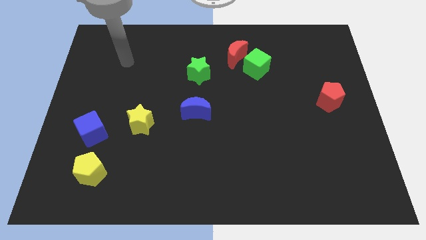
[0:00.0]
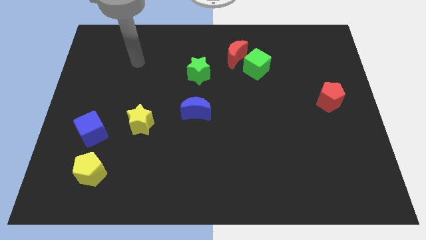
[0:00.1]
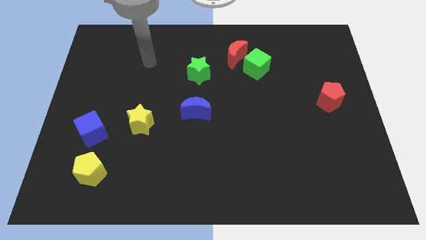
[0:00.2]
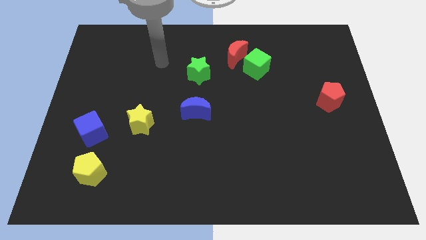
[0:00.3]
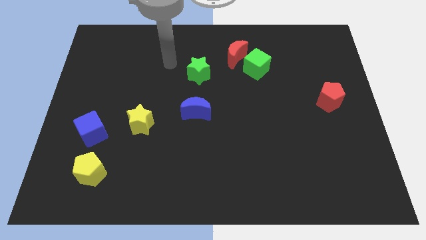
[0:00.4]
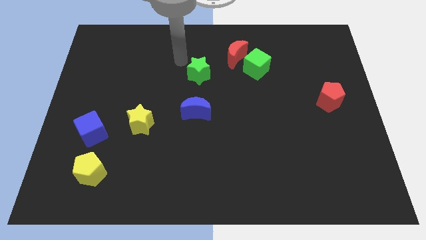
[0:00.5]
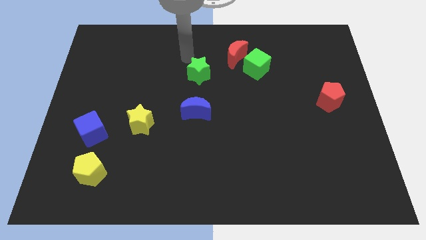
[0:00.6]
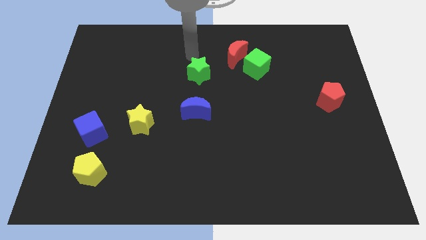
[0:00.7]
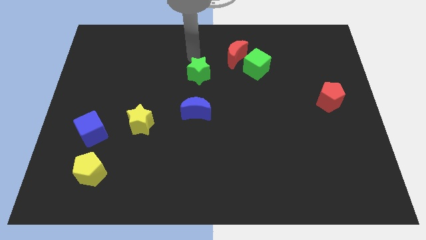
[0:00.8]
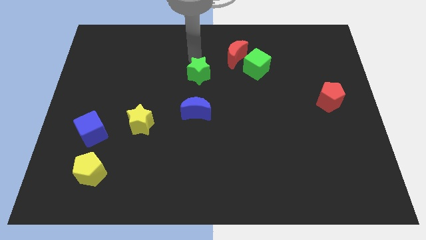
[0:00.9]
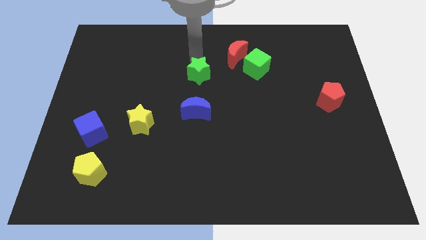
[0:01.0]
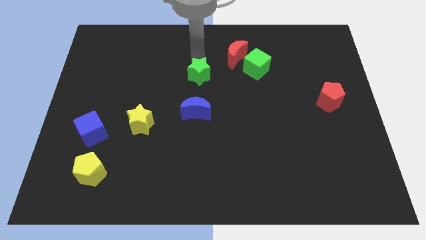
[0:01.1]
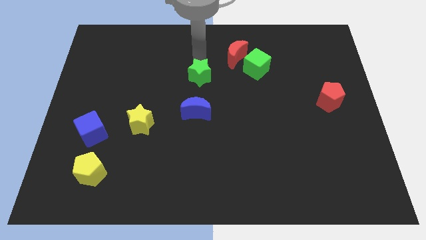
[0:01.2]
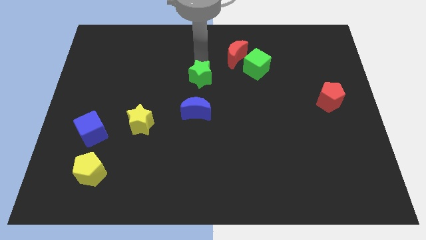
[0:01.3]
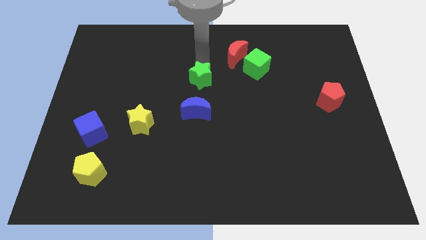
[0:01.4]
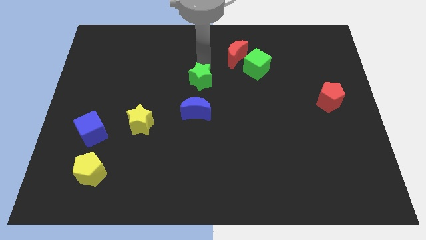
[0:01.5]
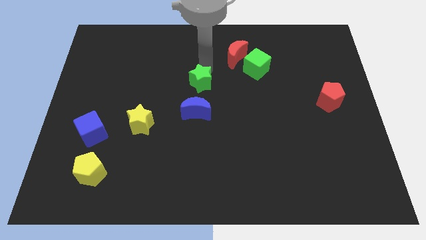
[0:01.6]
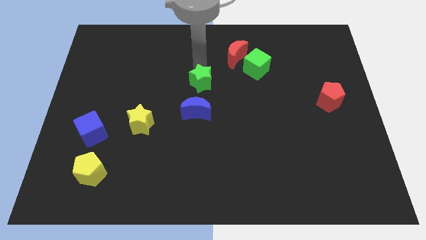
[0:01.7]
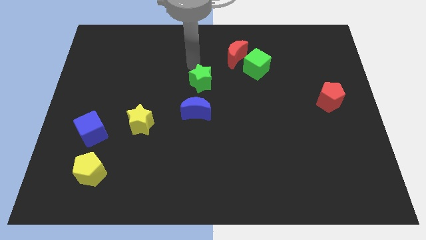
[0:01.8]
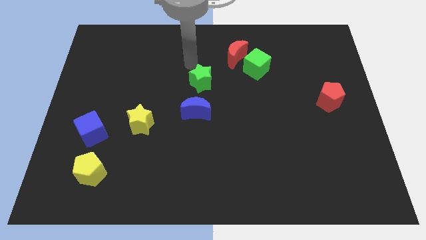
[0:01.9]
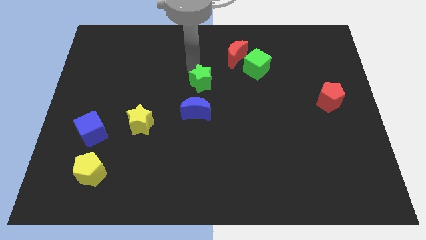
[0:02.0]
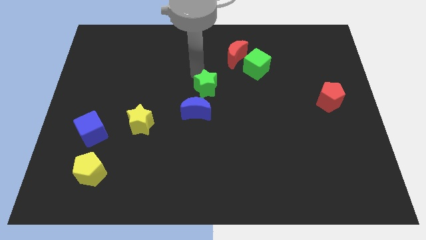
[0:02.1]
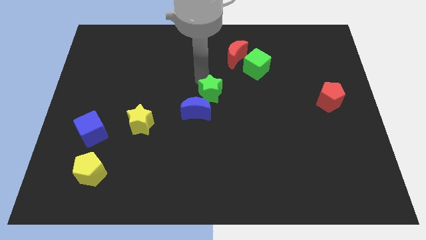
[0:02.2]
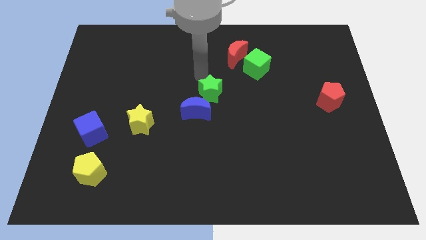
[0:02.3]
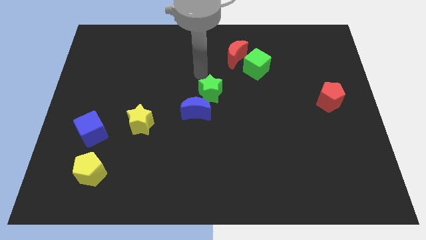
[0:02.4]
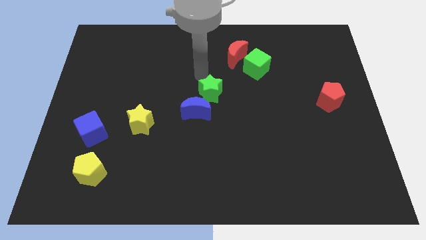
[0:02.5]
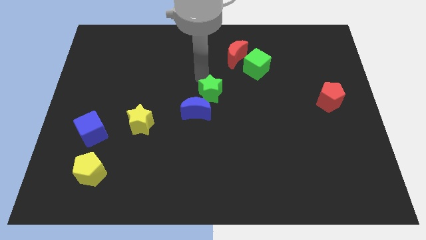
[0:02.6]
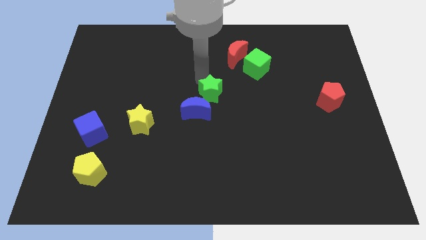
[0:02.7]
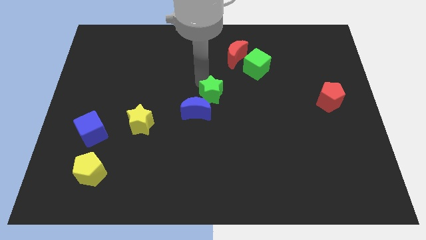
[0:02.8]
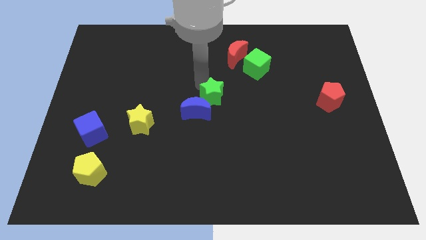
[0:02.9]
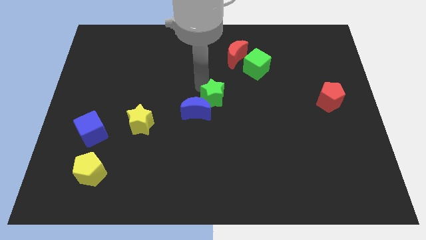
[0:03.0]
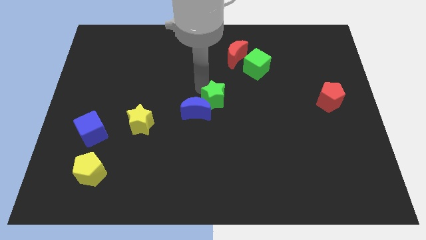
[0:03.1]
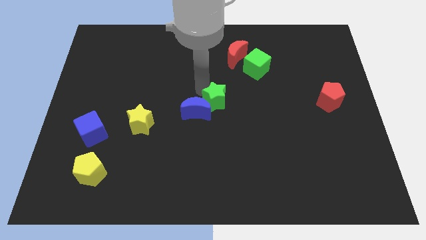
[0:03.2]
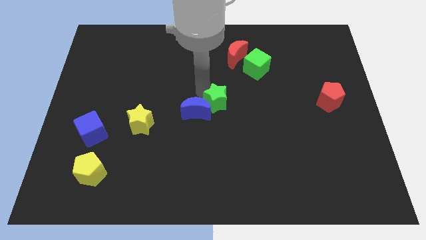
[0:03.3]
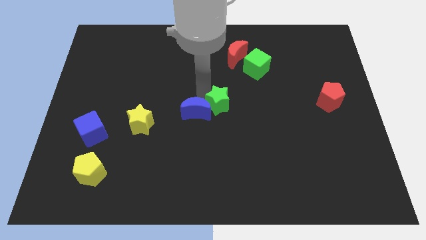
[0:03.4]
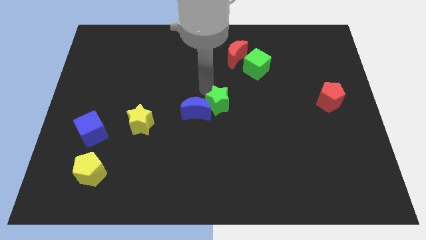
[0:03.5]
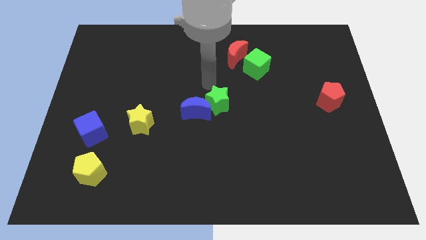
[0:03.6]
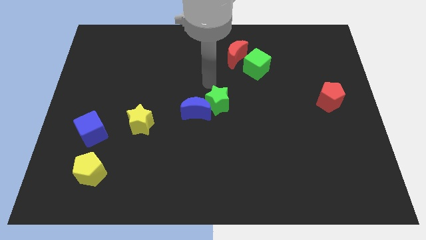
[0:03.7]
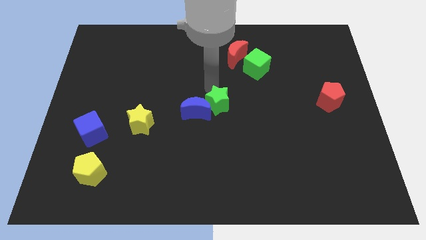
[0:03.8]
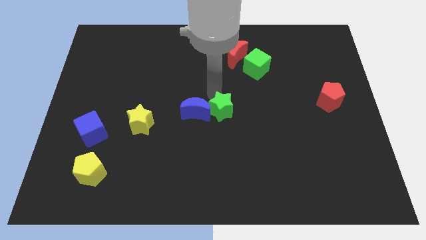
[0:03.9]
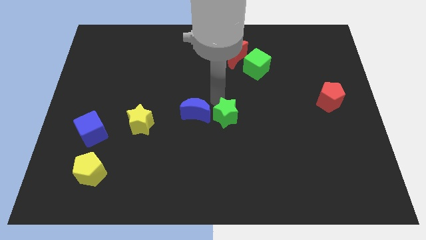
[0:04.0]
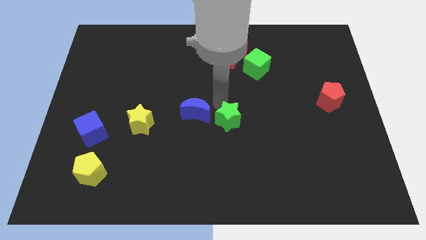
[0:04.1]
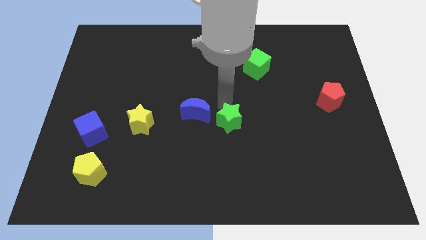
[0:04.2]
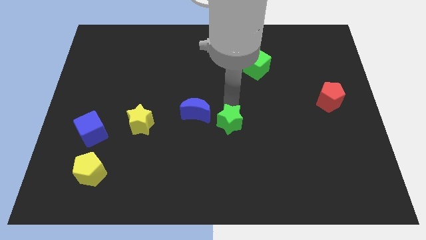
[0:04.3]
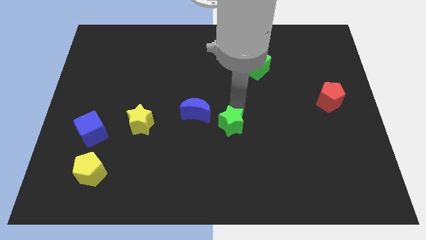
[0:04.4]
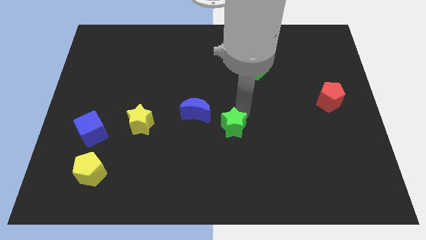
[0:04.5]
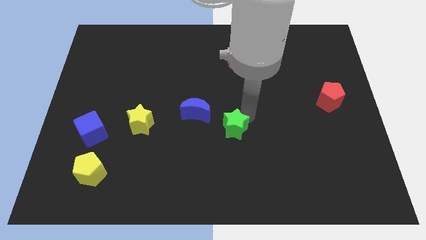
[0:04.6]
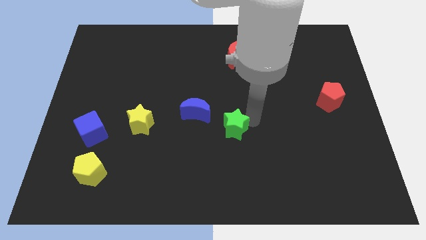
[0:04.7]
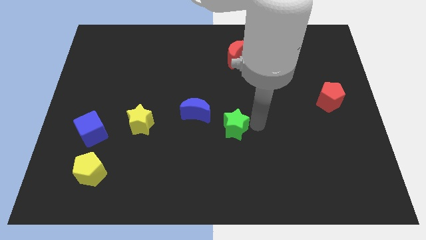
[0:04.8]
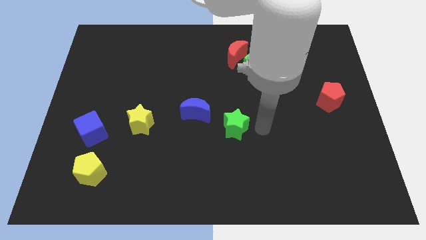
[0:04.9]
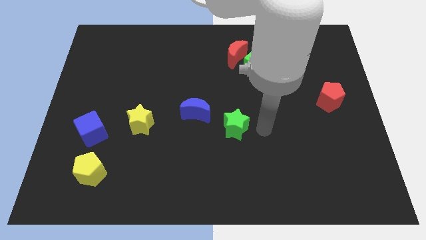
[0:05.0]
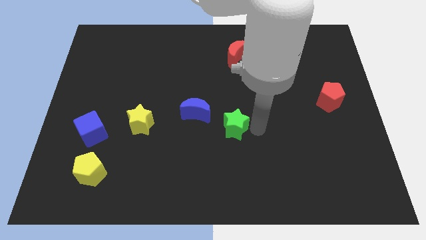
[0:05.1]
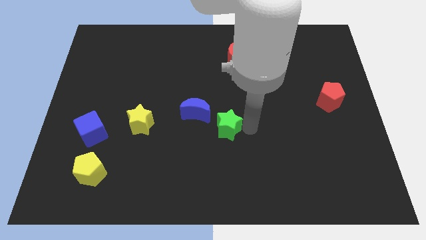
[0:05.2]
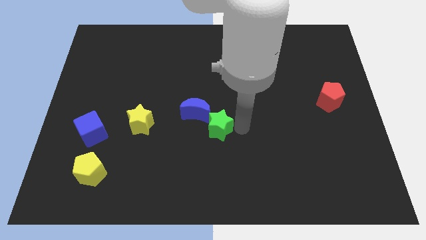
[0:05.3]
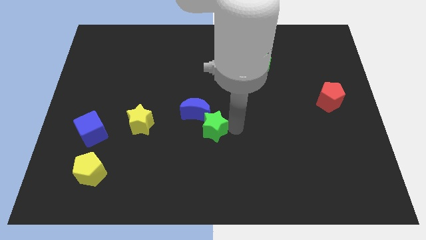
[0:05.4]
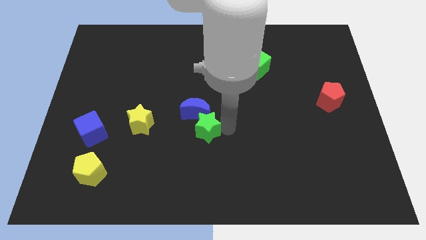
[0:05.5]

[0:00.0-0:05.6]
move the green star right of the yellow star

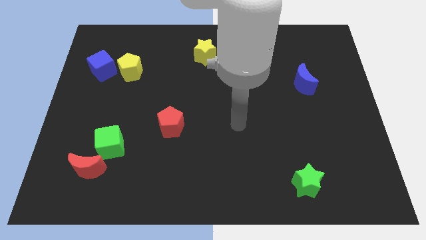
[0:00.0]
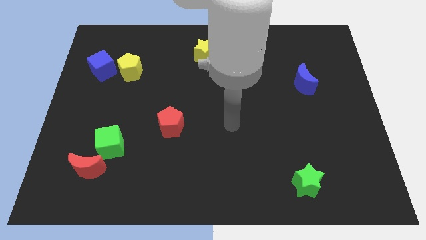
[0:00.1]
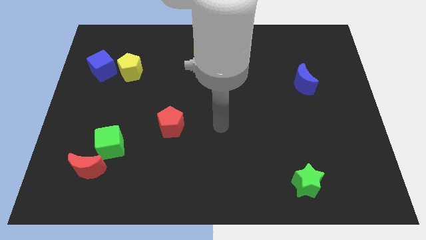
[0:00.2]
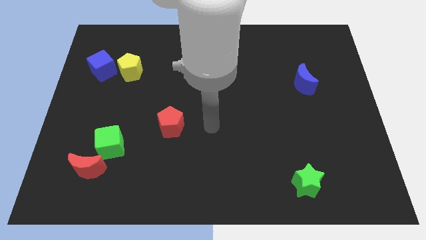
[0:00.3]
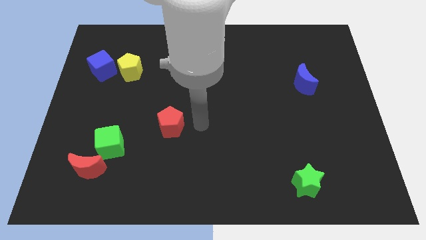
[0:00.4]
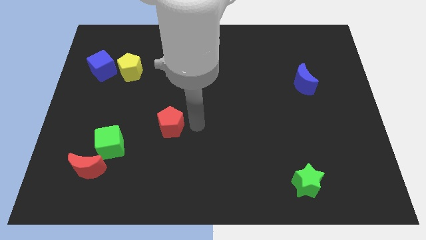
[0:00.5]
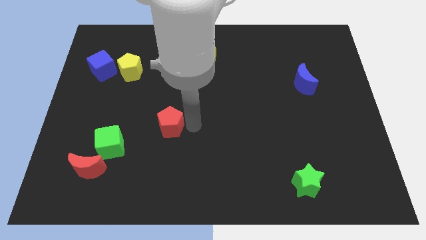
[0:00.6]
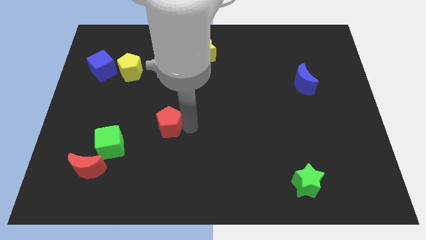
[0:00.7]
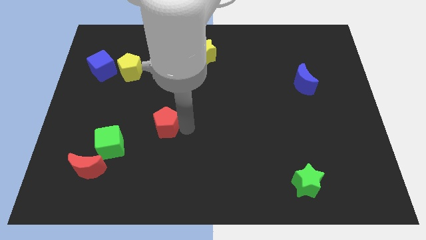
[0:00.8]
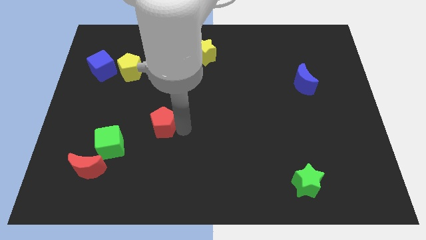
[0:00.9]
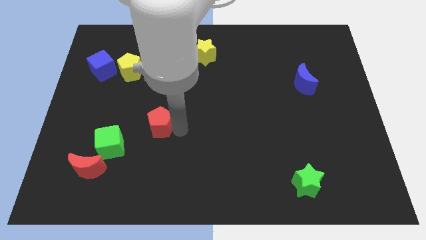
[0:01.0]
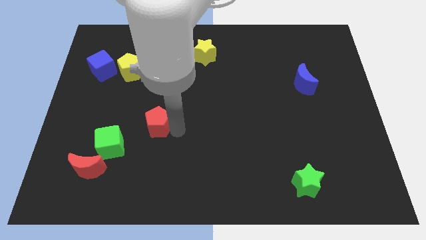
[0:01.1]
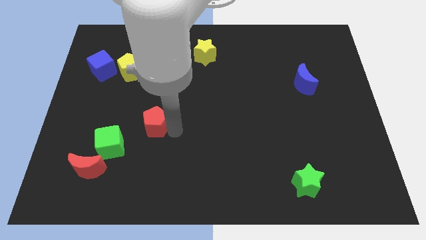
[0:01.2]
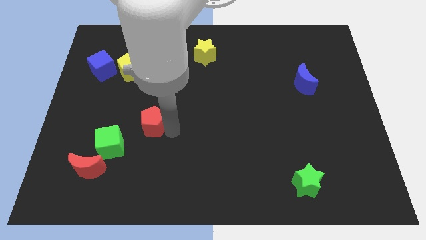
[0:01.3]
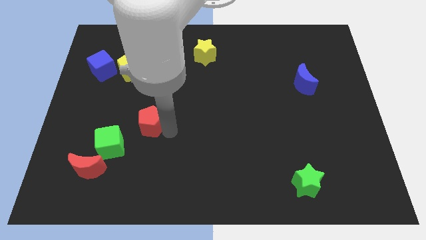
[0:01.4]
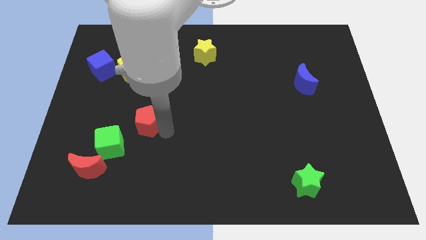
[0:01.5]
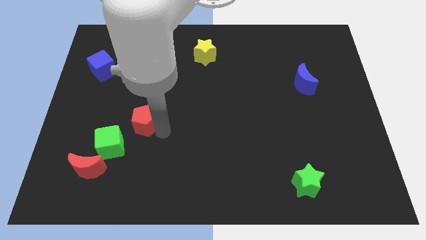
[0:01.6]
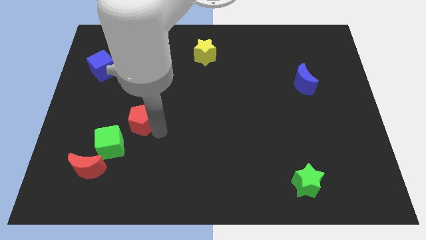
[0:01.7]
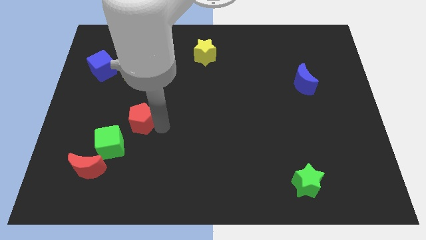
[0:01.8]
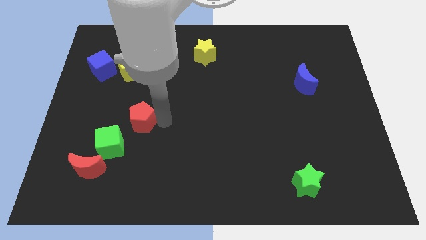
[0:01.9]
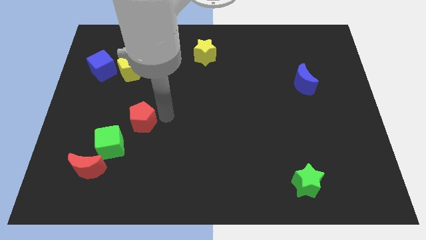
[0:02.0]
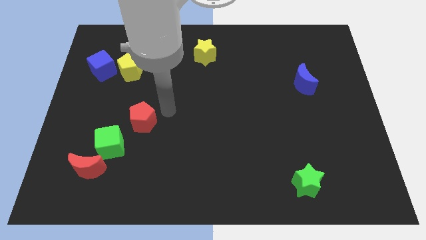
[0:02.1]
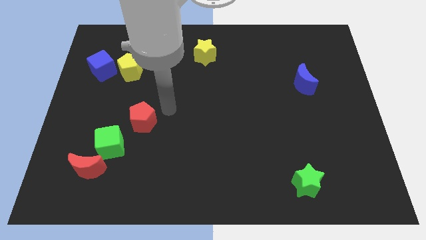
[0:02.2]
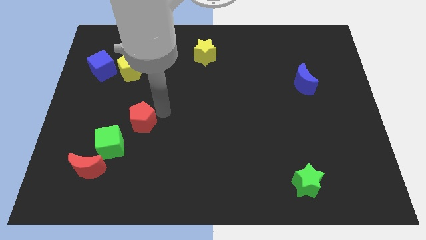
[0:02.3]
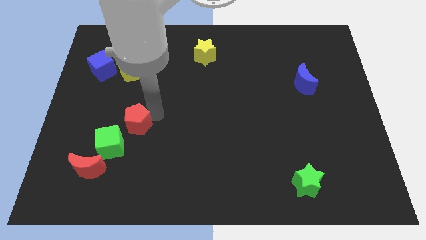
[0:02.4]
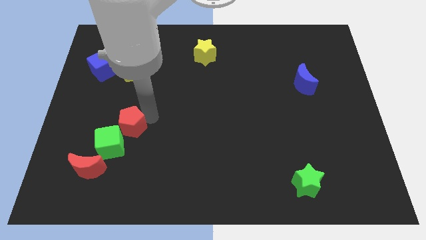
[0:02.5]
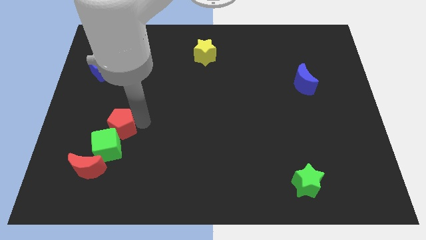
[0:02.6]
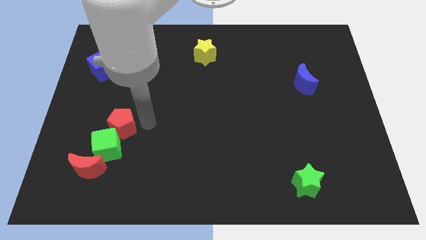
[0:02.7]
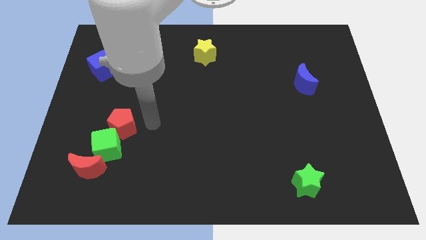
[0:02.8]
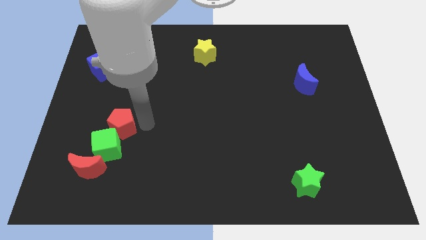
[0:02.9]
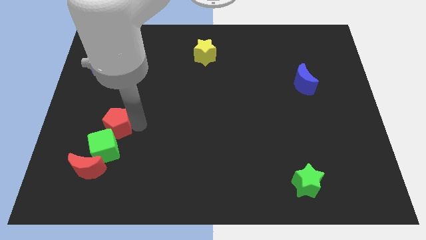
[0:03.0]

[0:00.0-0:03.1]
put the red pentagon to the top of the red moon
